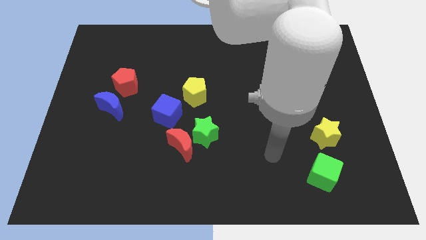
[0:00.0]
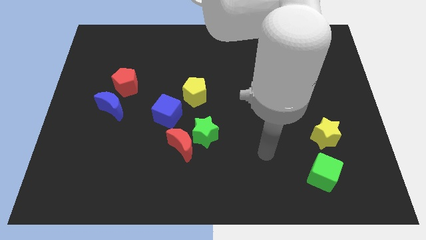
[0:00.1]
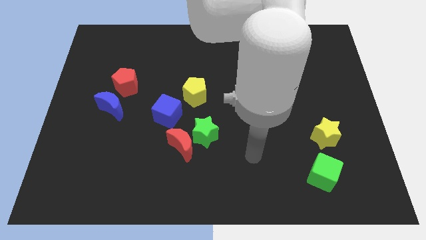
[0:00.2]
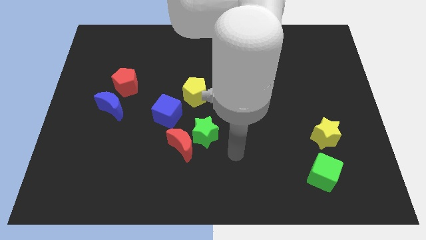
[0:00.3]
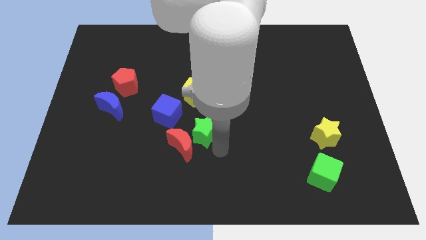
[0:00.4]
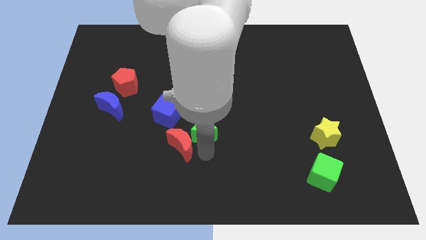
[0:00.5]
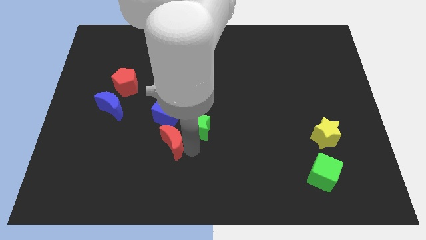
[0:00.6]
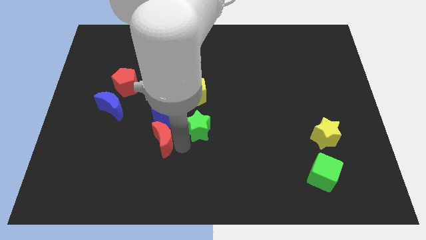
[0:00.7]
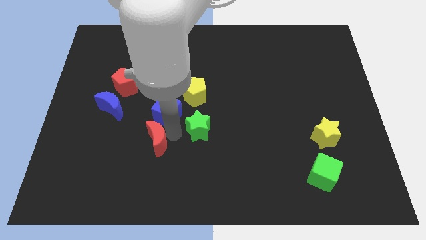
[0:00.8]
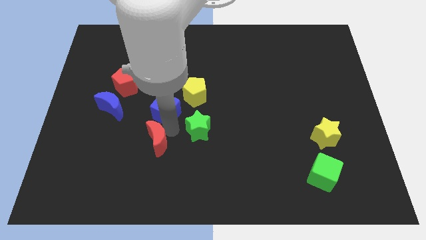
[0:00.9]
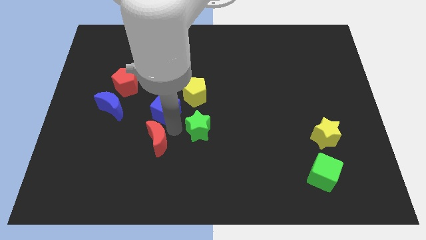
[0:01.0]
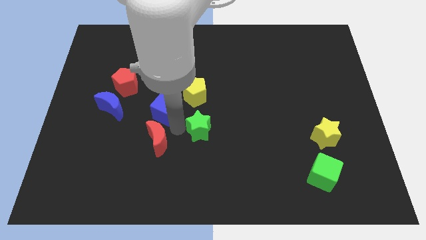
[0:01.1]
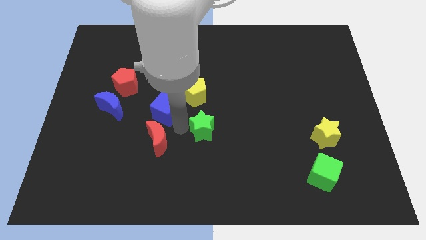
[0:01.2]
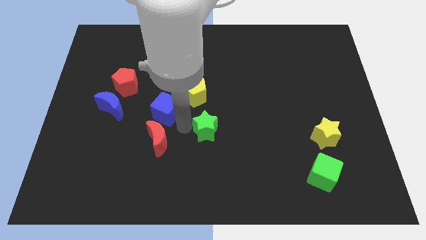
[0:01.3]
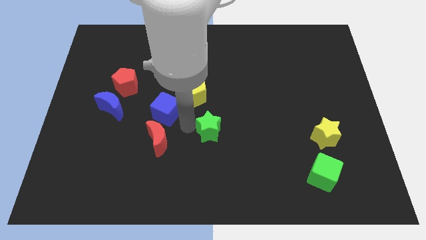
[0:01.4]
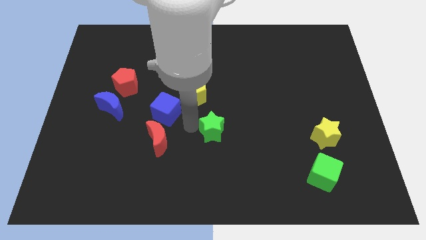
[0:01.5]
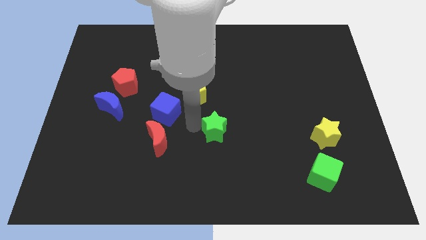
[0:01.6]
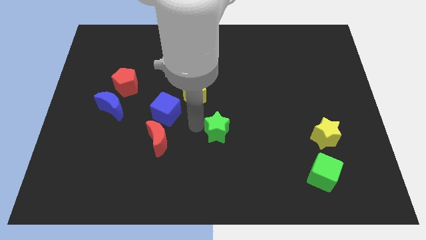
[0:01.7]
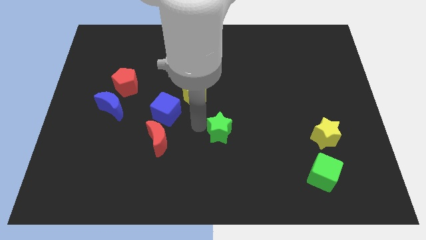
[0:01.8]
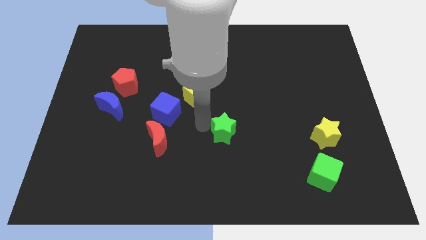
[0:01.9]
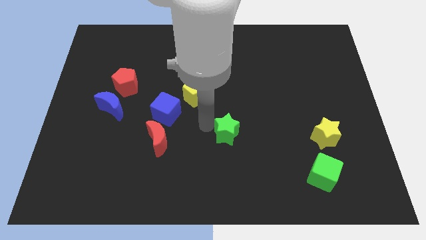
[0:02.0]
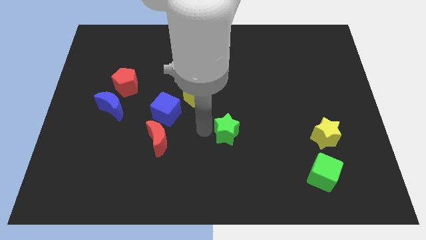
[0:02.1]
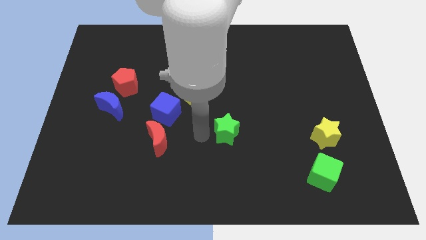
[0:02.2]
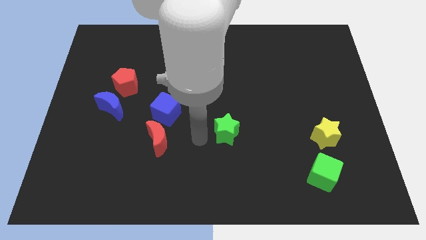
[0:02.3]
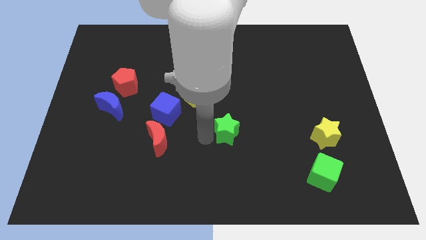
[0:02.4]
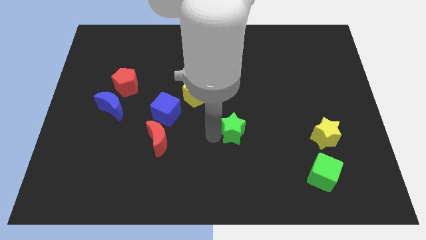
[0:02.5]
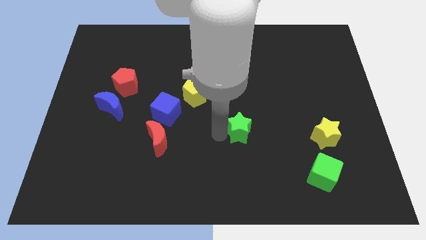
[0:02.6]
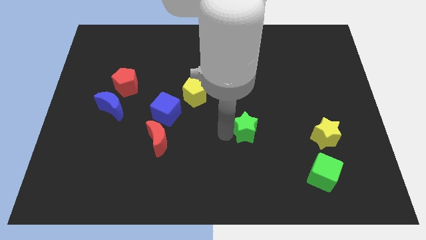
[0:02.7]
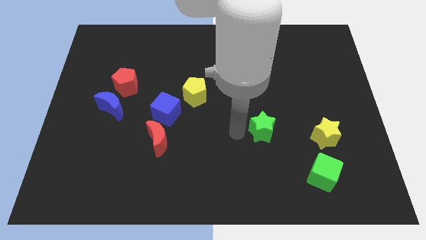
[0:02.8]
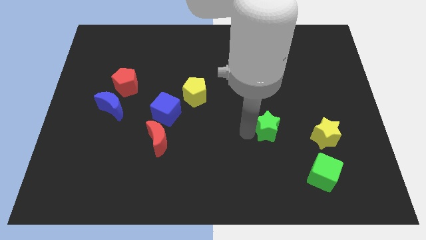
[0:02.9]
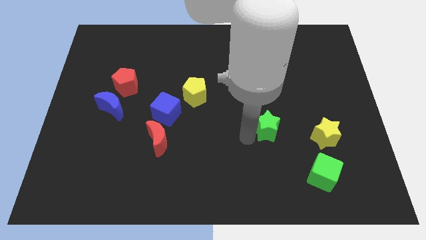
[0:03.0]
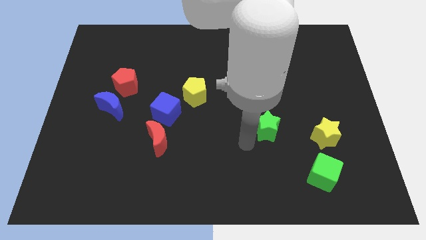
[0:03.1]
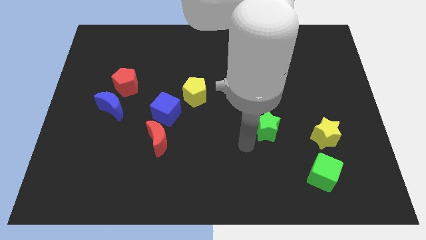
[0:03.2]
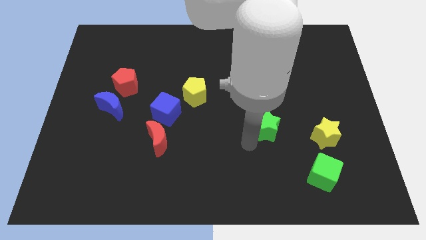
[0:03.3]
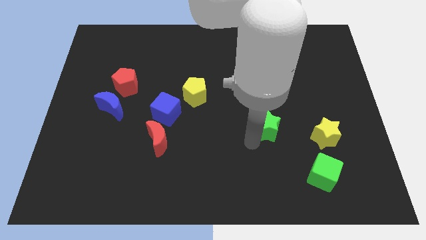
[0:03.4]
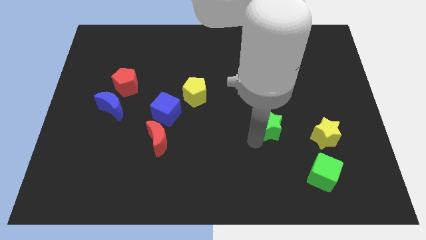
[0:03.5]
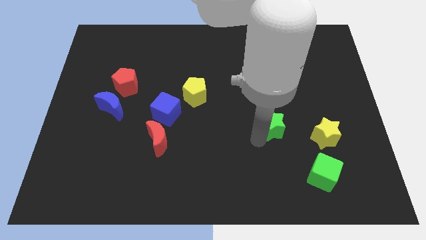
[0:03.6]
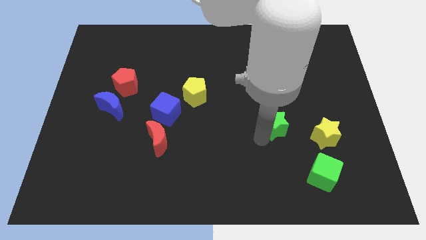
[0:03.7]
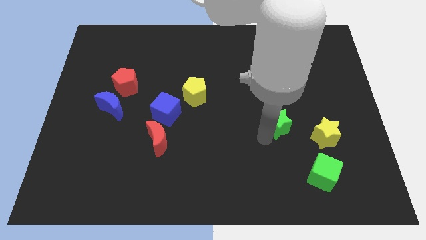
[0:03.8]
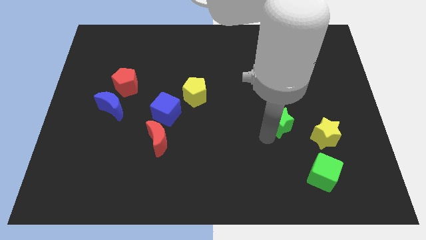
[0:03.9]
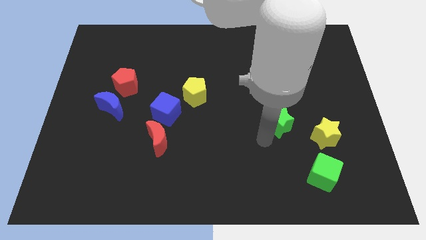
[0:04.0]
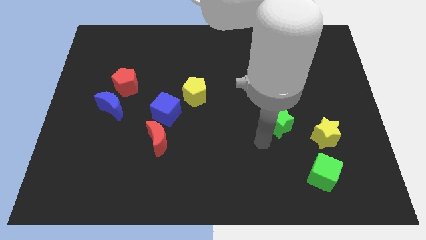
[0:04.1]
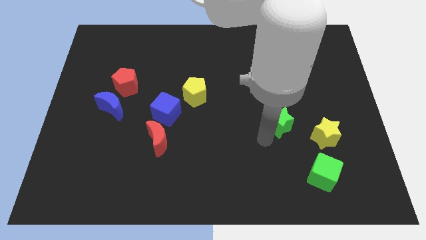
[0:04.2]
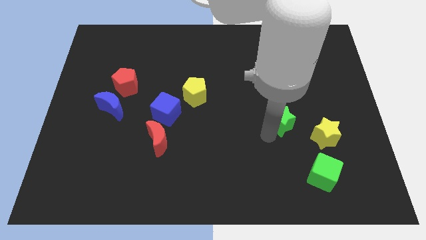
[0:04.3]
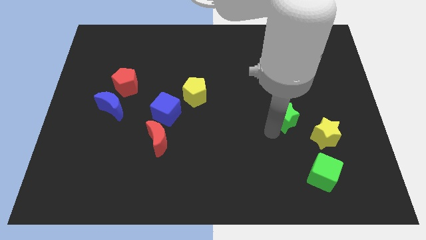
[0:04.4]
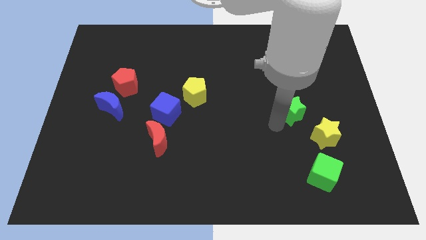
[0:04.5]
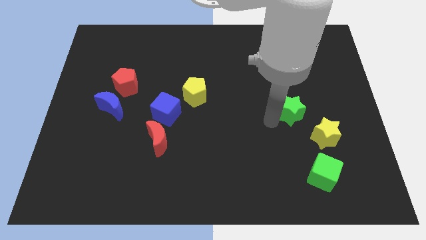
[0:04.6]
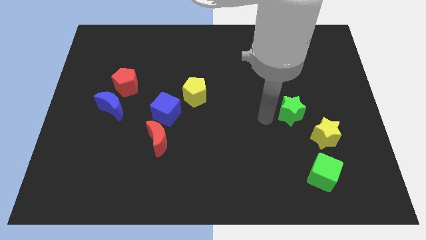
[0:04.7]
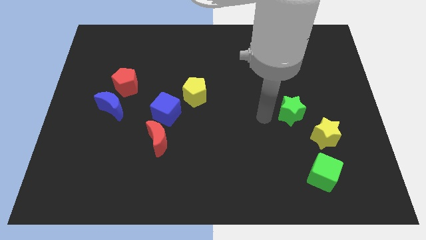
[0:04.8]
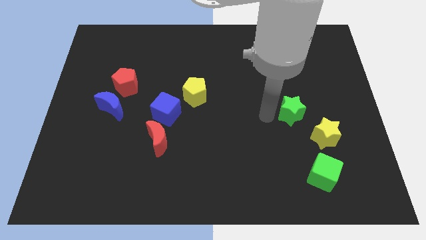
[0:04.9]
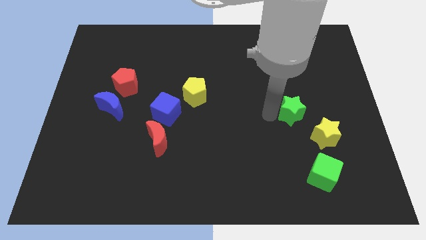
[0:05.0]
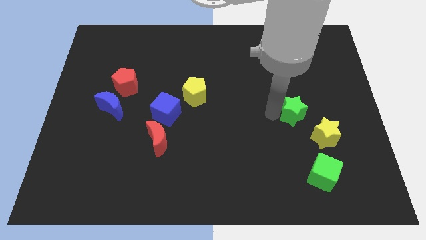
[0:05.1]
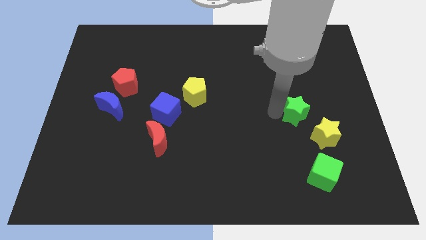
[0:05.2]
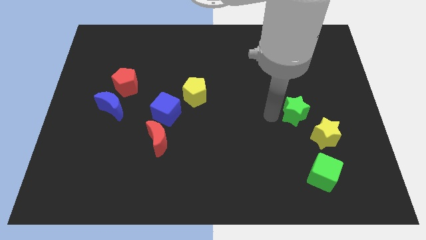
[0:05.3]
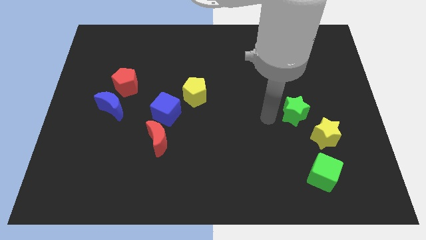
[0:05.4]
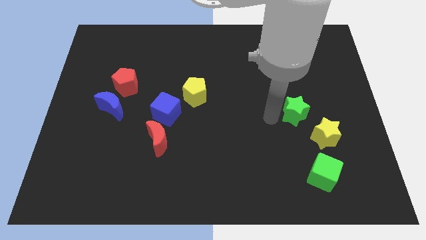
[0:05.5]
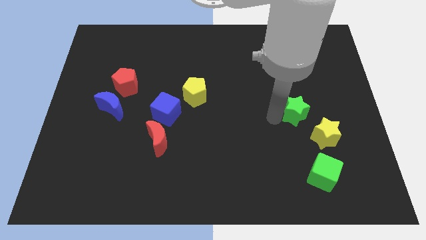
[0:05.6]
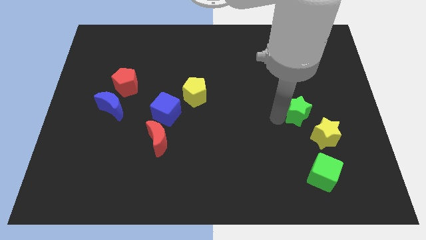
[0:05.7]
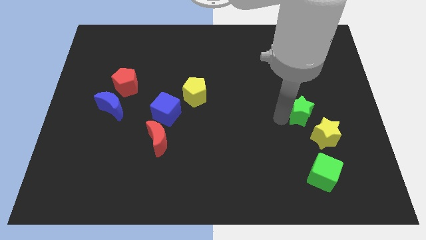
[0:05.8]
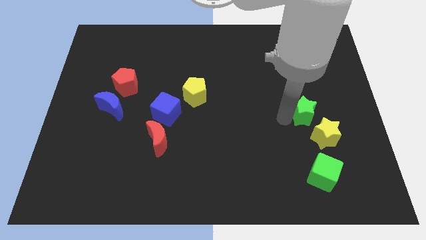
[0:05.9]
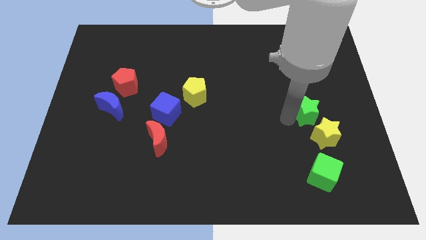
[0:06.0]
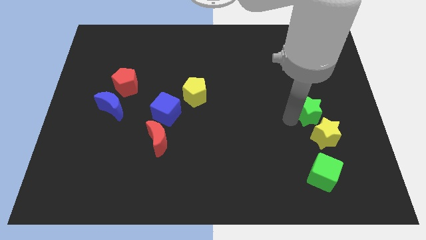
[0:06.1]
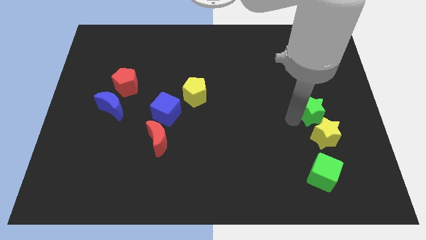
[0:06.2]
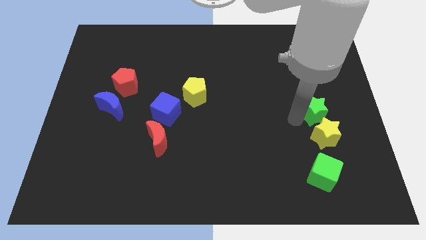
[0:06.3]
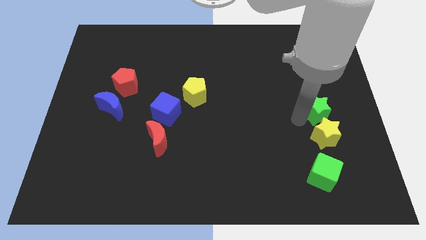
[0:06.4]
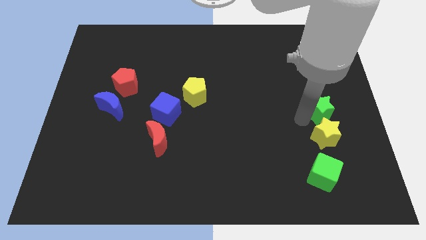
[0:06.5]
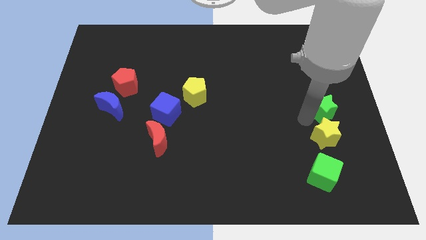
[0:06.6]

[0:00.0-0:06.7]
put the green star to the center right
